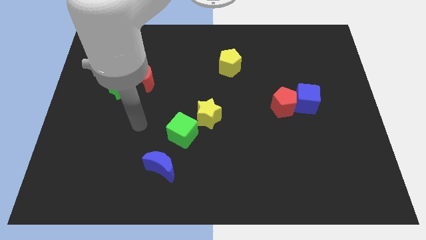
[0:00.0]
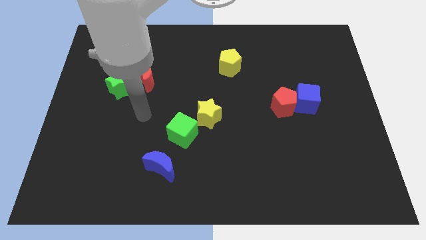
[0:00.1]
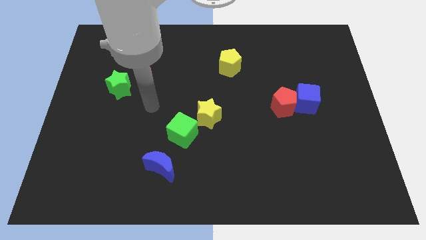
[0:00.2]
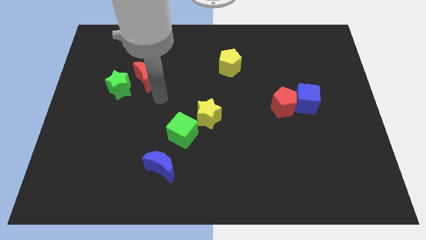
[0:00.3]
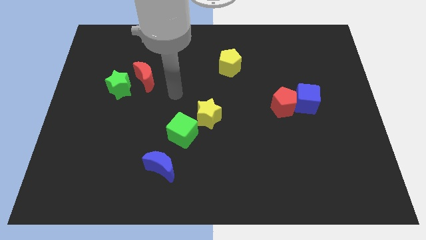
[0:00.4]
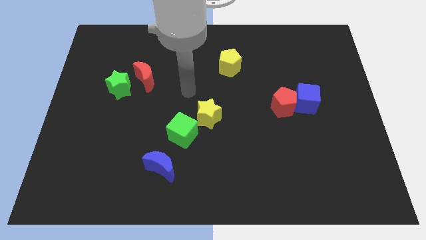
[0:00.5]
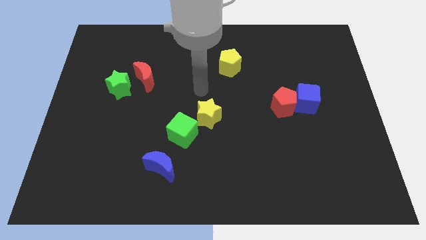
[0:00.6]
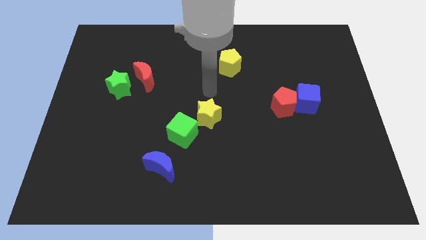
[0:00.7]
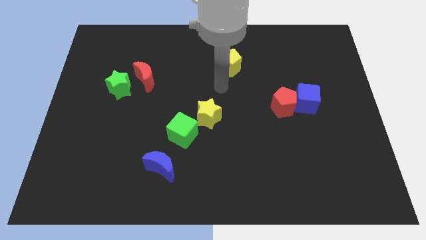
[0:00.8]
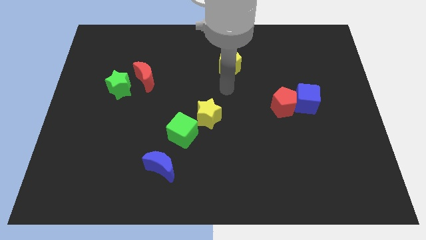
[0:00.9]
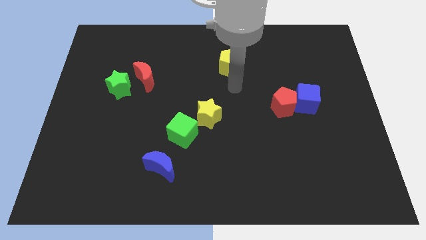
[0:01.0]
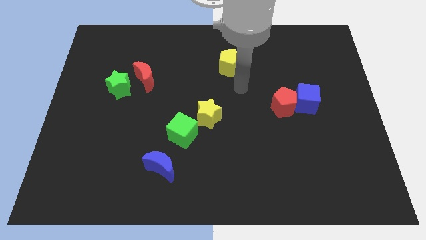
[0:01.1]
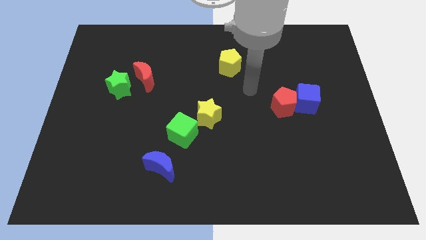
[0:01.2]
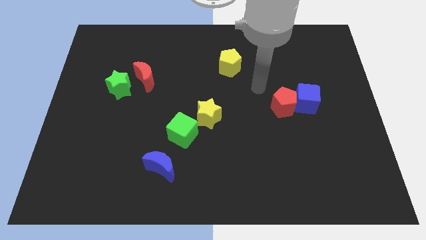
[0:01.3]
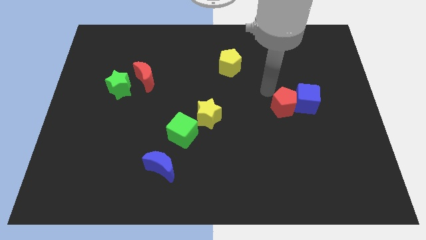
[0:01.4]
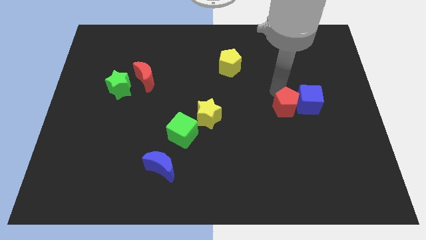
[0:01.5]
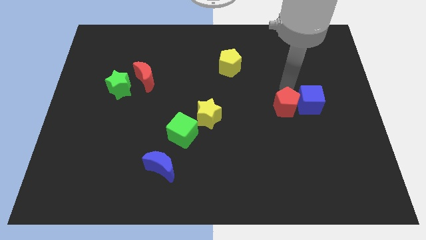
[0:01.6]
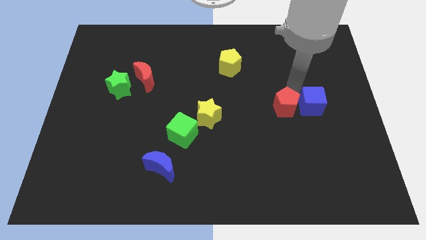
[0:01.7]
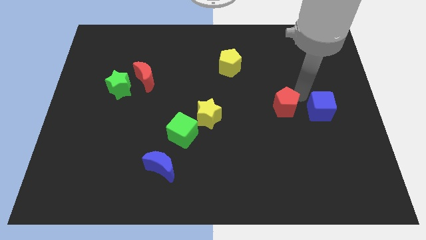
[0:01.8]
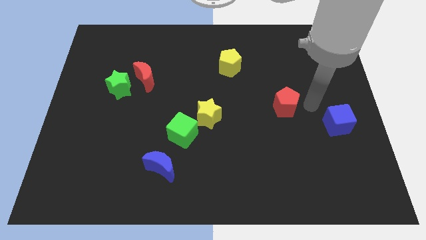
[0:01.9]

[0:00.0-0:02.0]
move the red pentagon away from the blue cube

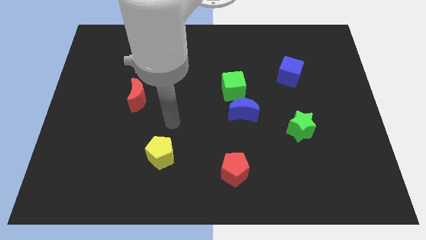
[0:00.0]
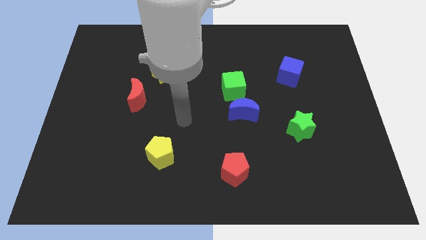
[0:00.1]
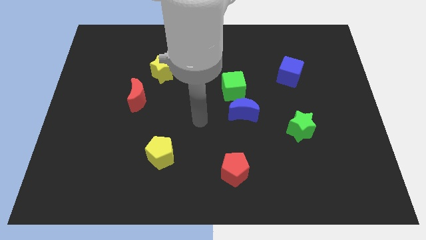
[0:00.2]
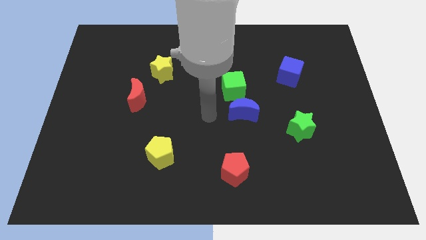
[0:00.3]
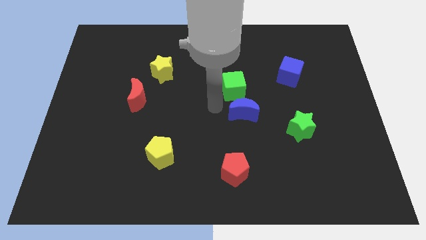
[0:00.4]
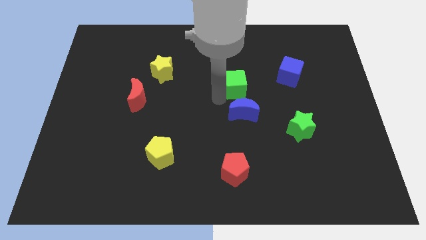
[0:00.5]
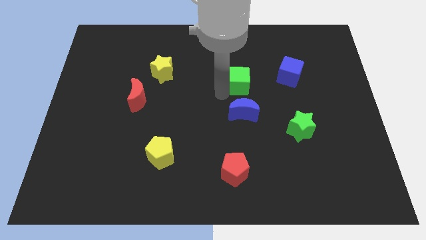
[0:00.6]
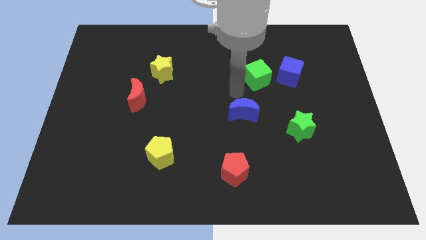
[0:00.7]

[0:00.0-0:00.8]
move the blue moon away from the green cube

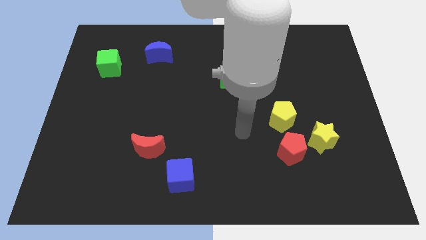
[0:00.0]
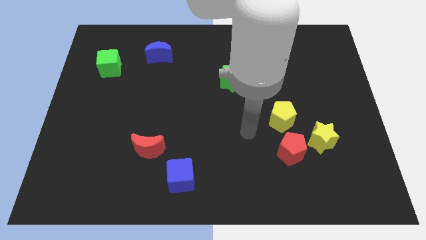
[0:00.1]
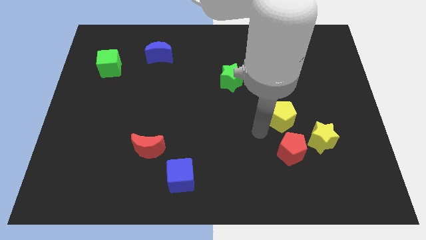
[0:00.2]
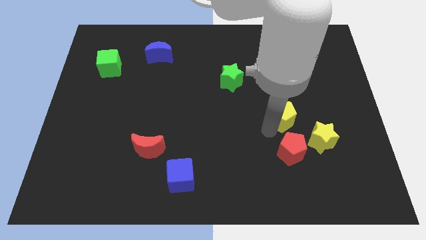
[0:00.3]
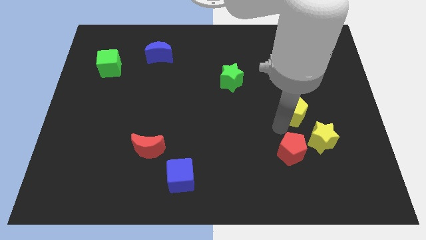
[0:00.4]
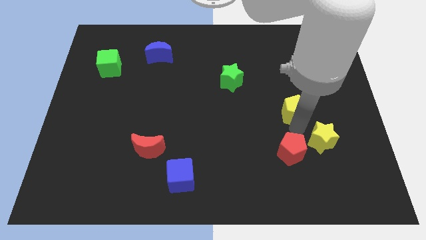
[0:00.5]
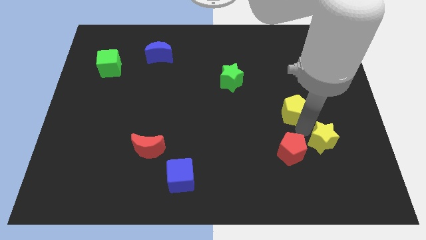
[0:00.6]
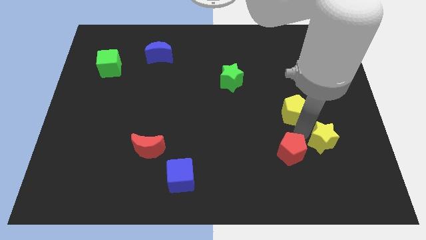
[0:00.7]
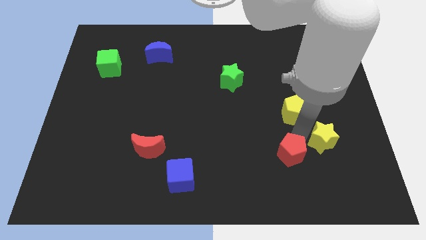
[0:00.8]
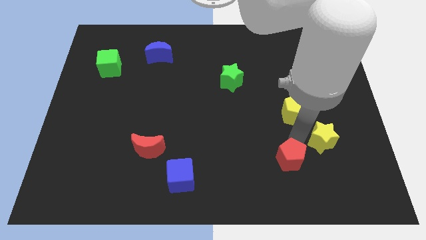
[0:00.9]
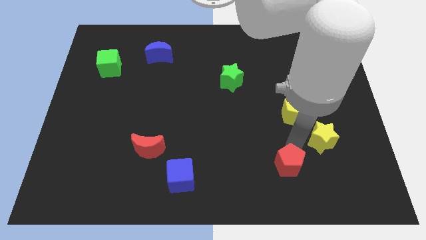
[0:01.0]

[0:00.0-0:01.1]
move the red pentagon away from the yellow star and yellow pentagon

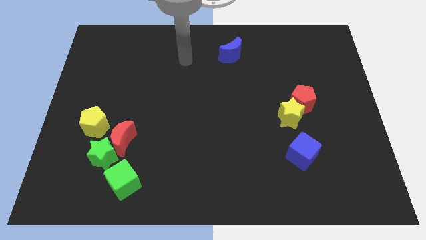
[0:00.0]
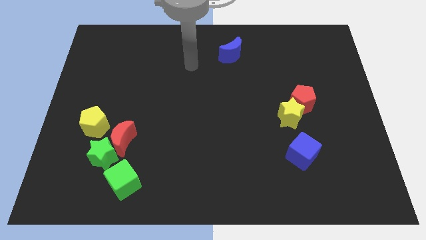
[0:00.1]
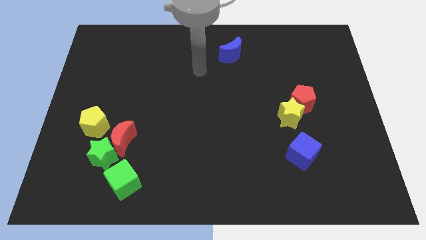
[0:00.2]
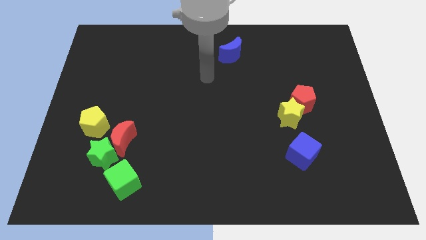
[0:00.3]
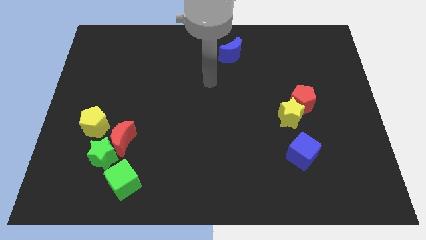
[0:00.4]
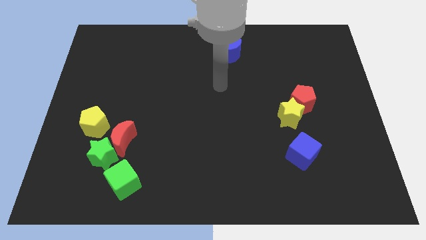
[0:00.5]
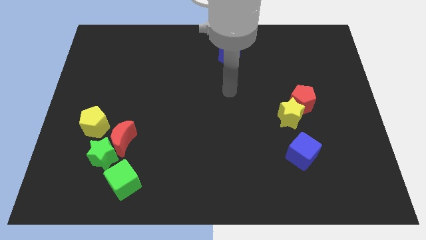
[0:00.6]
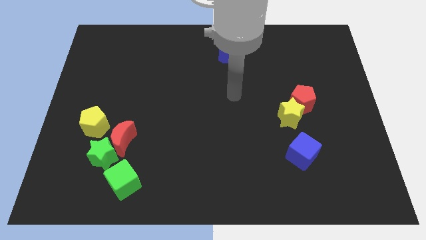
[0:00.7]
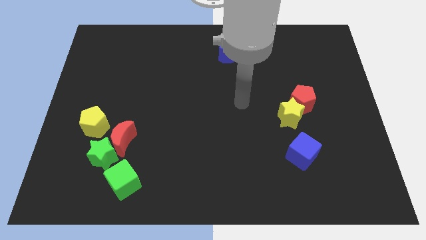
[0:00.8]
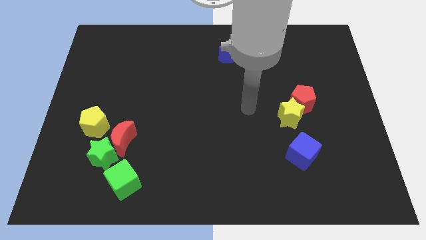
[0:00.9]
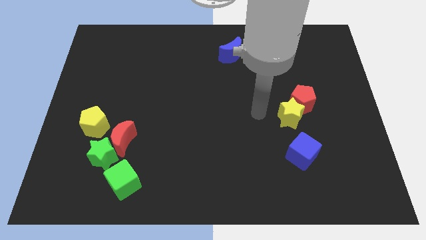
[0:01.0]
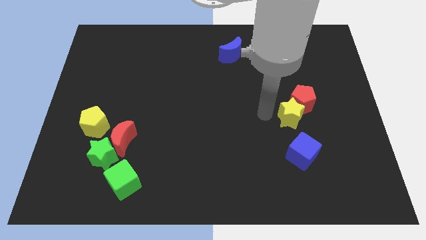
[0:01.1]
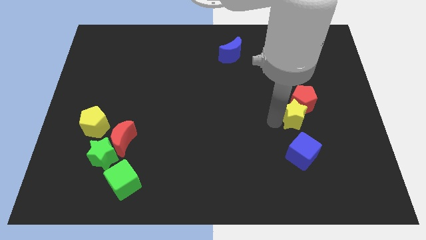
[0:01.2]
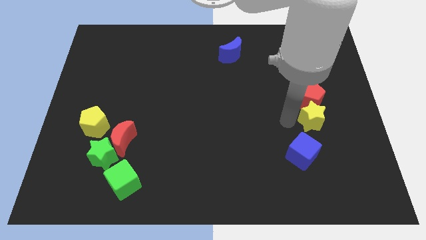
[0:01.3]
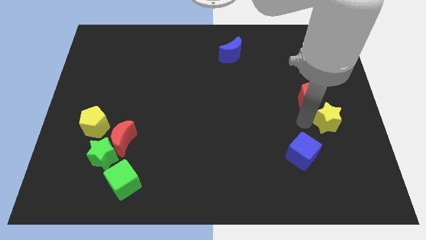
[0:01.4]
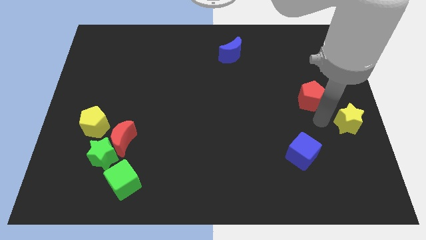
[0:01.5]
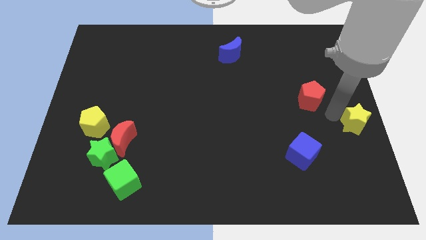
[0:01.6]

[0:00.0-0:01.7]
separate the red pentagon from the yellow star

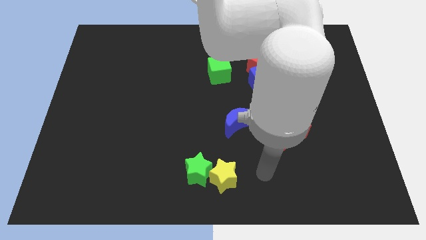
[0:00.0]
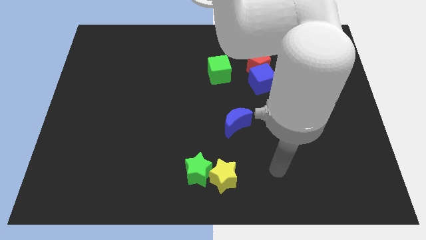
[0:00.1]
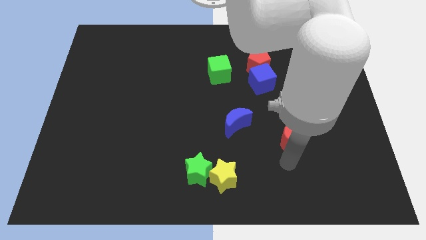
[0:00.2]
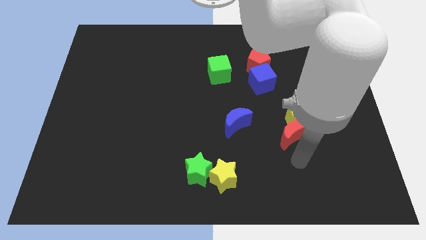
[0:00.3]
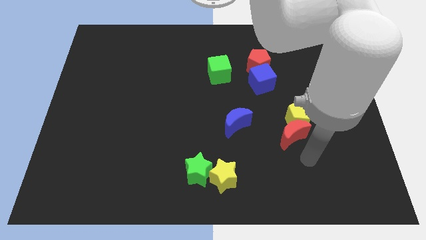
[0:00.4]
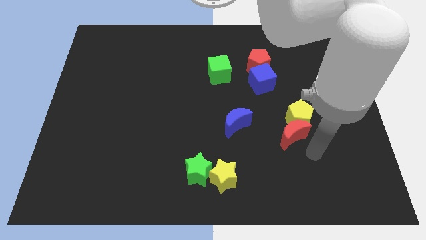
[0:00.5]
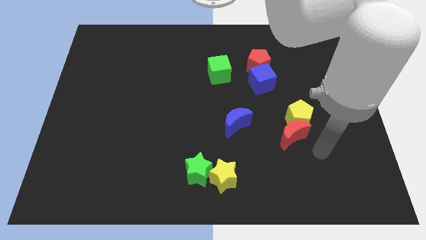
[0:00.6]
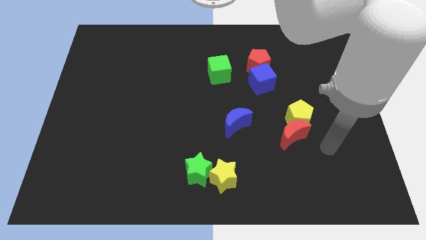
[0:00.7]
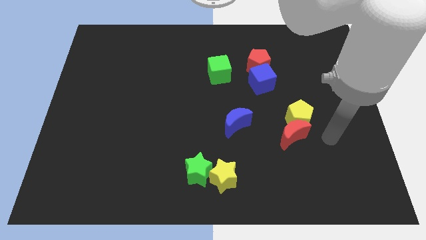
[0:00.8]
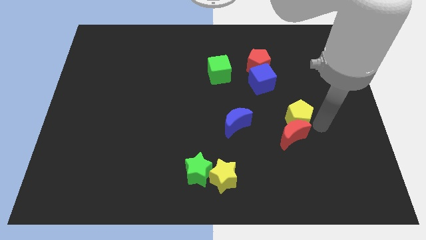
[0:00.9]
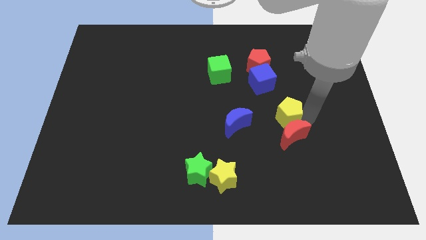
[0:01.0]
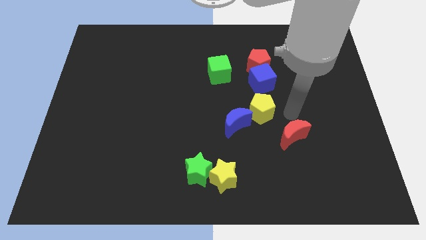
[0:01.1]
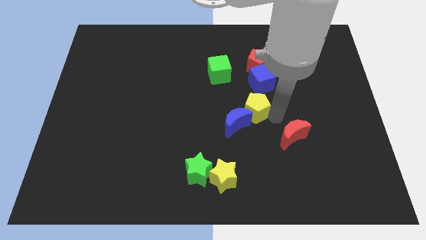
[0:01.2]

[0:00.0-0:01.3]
move the red moon away from the yellow pentagon

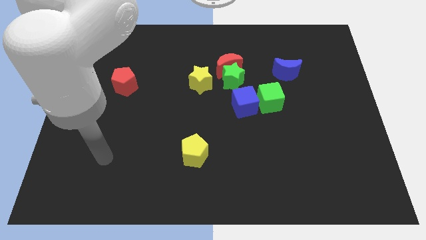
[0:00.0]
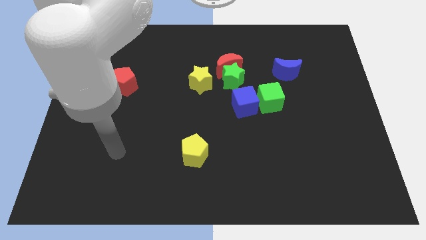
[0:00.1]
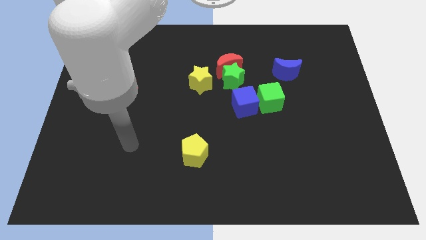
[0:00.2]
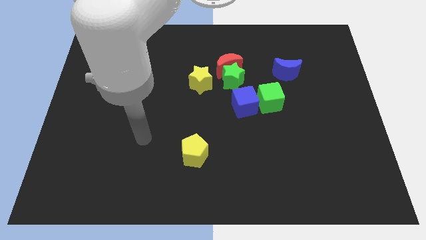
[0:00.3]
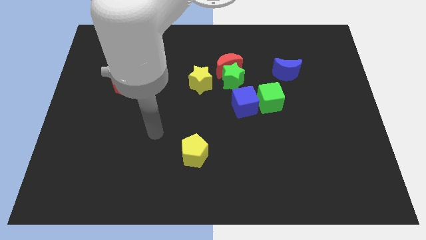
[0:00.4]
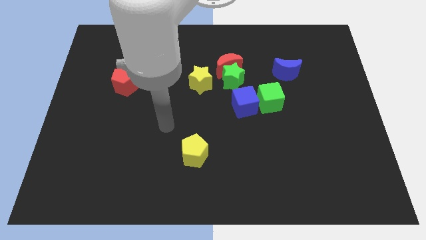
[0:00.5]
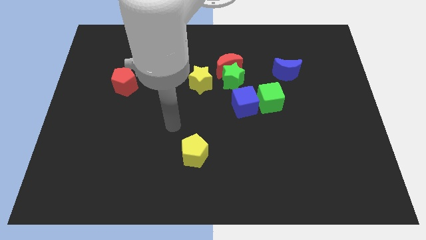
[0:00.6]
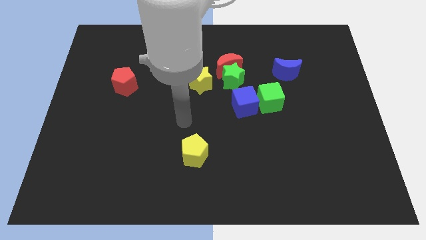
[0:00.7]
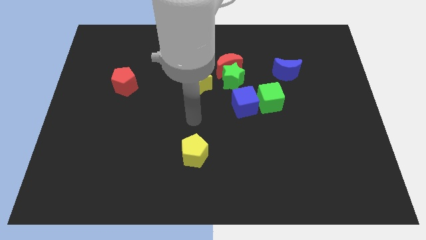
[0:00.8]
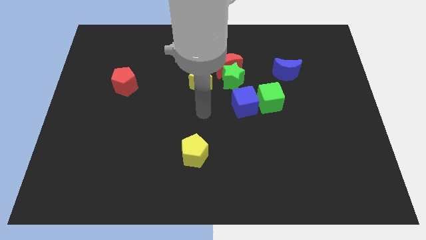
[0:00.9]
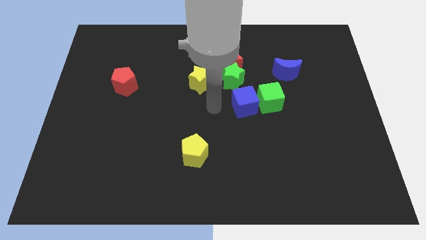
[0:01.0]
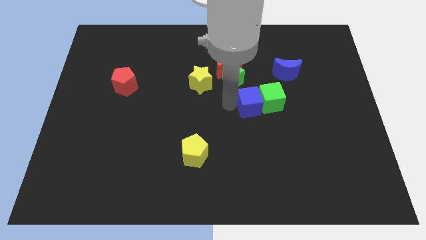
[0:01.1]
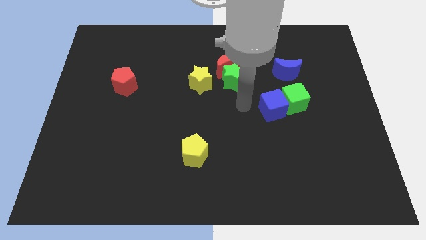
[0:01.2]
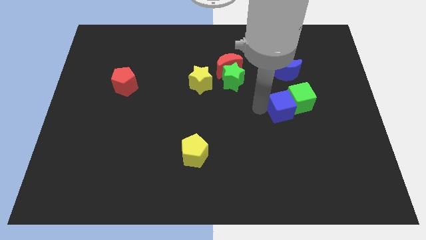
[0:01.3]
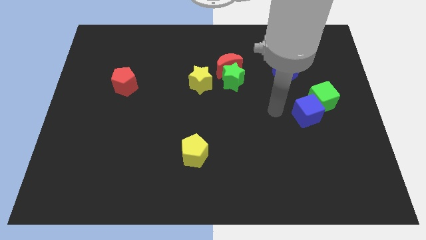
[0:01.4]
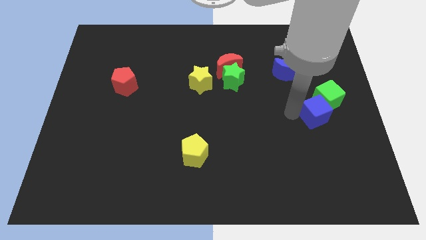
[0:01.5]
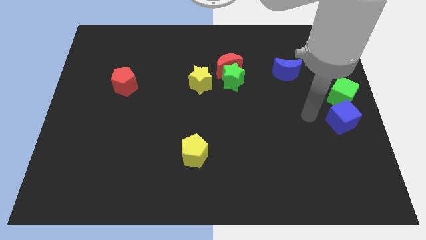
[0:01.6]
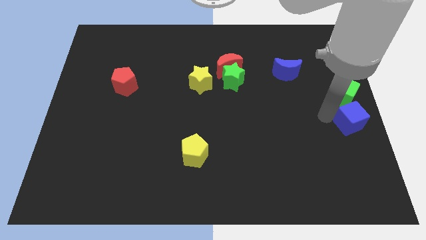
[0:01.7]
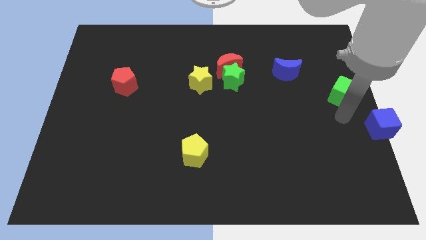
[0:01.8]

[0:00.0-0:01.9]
move the green cube away from the blue cube

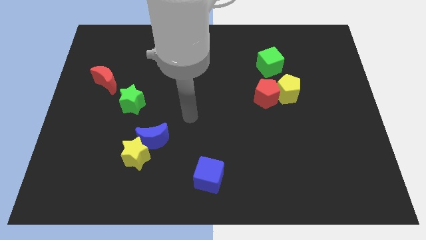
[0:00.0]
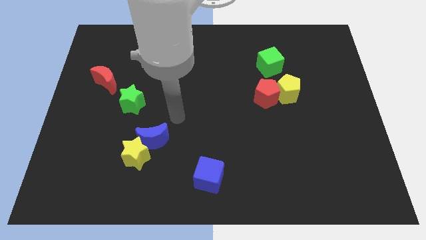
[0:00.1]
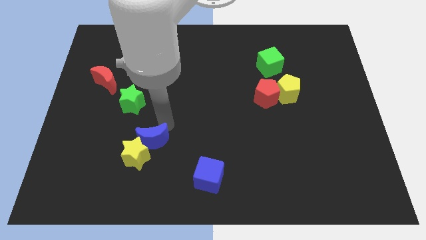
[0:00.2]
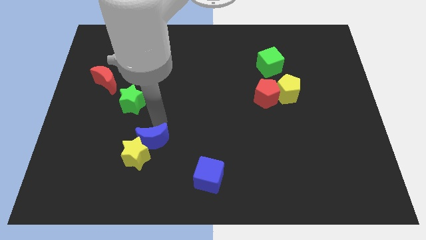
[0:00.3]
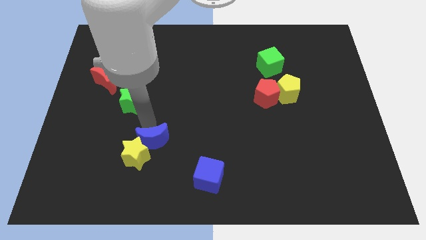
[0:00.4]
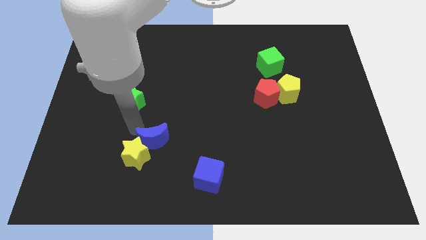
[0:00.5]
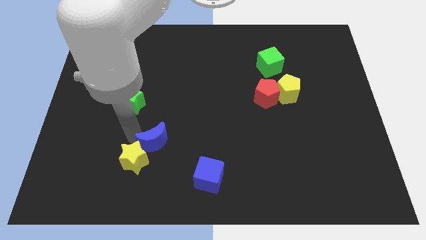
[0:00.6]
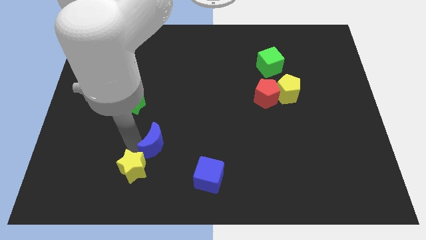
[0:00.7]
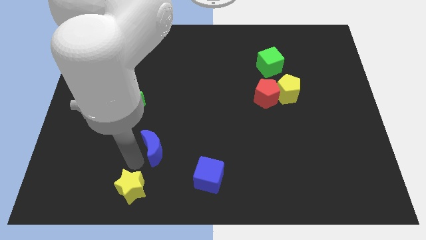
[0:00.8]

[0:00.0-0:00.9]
move the blue moon away from the yellow star
